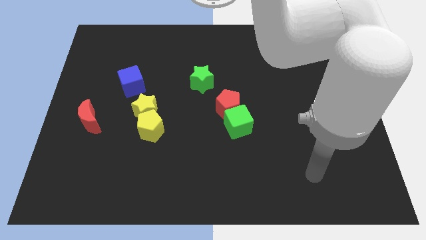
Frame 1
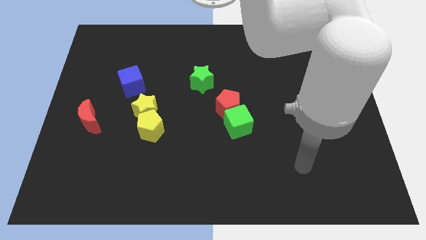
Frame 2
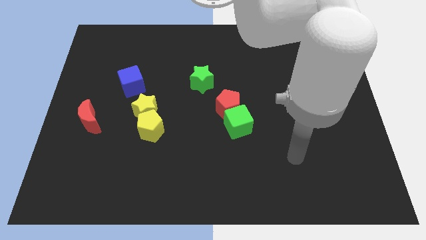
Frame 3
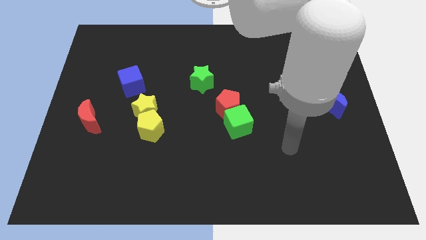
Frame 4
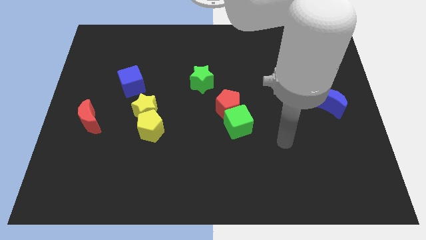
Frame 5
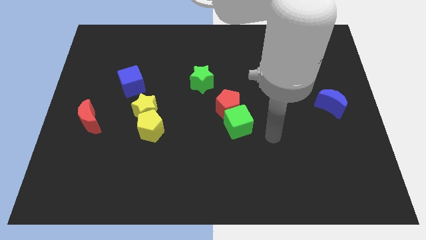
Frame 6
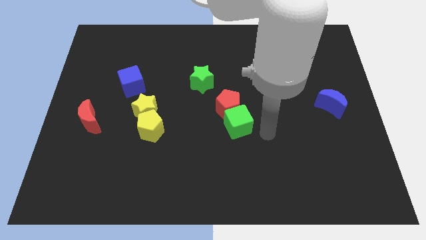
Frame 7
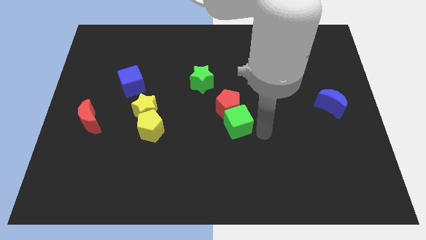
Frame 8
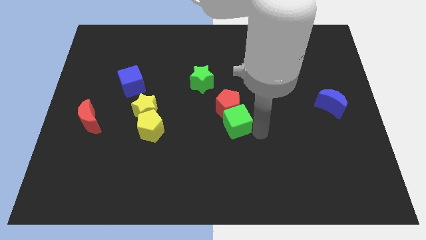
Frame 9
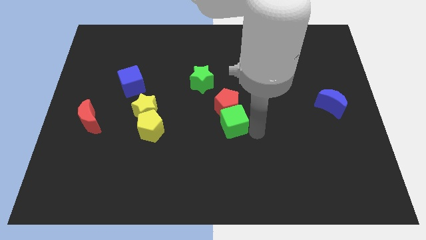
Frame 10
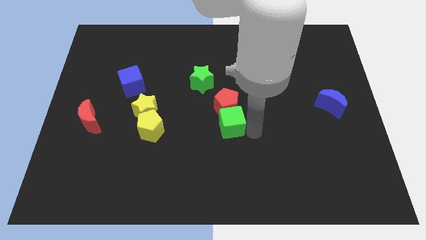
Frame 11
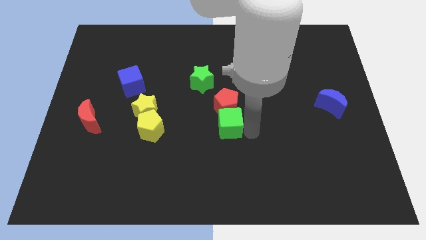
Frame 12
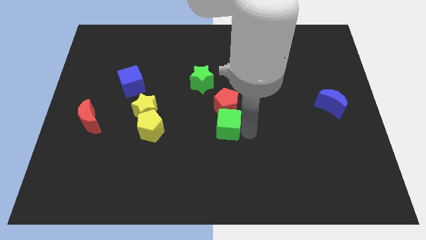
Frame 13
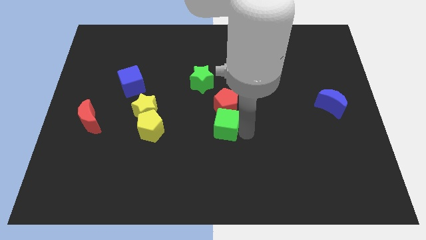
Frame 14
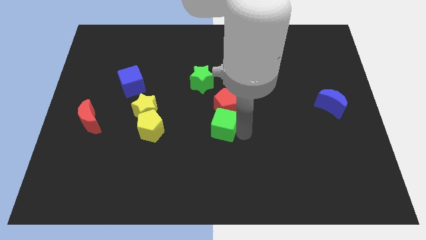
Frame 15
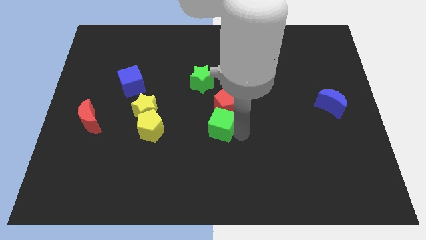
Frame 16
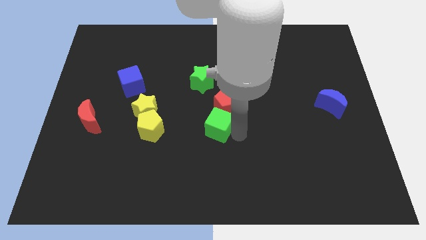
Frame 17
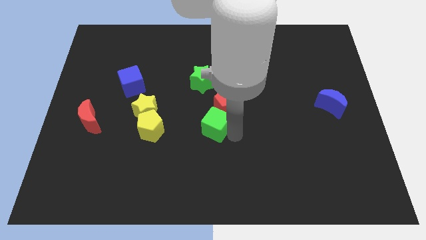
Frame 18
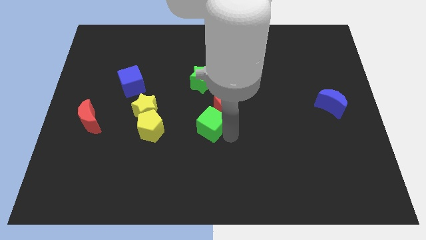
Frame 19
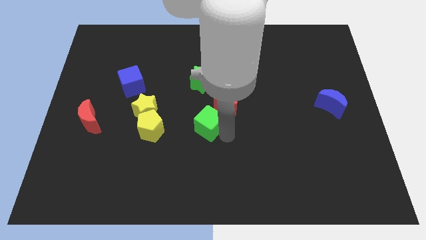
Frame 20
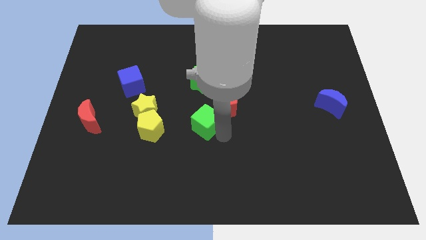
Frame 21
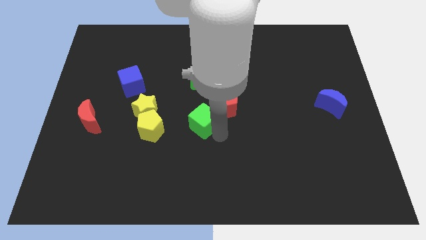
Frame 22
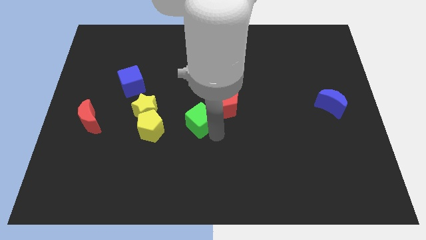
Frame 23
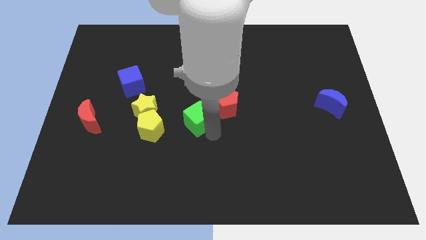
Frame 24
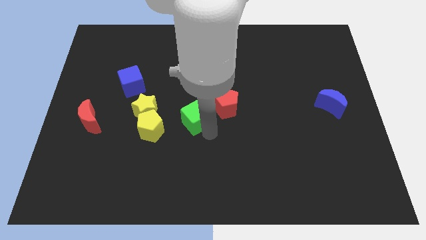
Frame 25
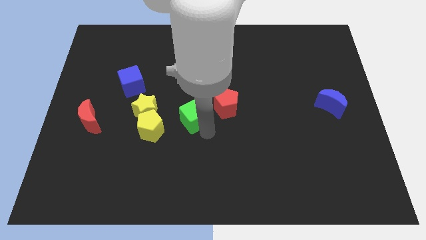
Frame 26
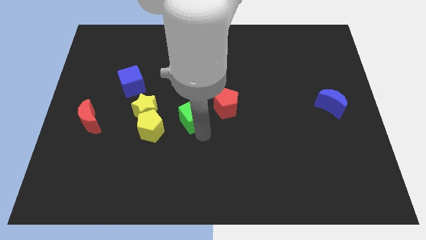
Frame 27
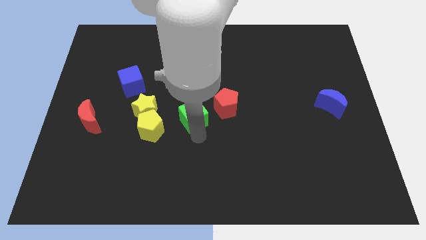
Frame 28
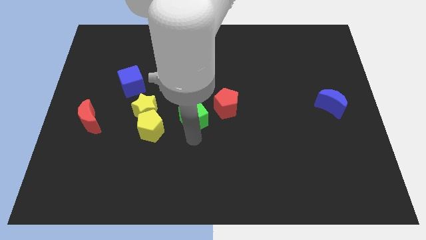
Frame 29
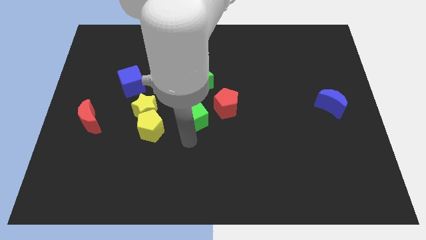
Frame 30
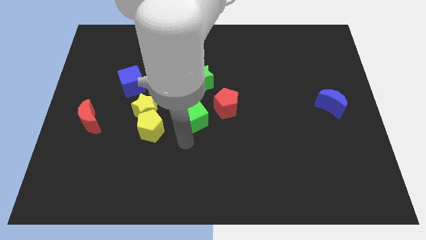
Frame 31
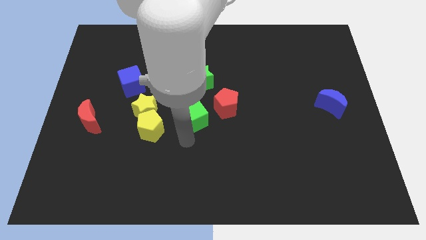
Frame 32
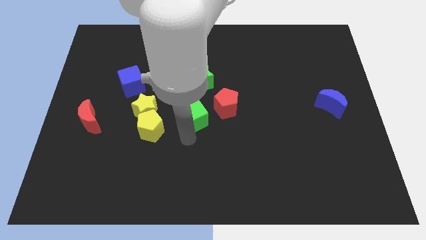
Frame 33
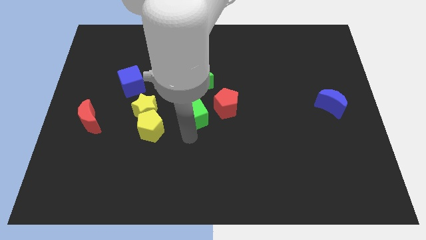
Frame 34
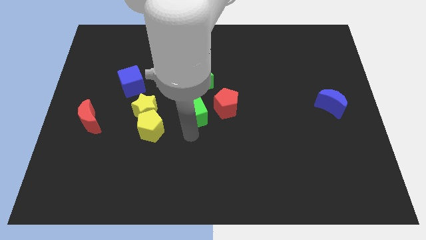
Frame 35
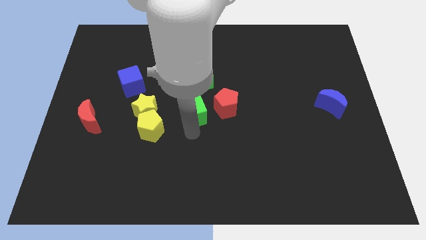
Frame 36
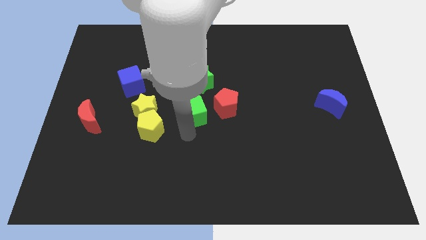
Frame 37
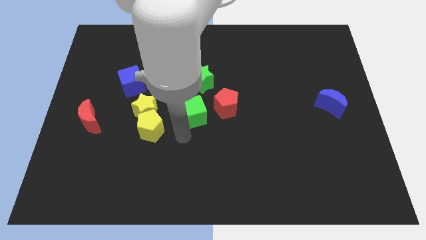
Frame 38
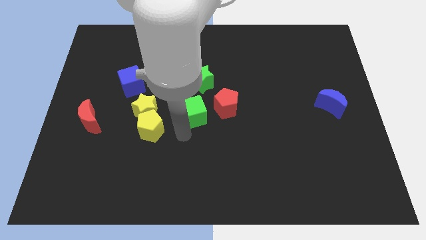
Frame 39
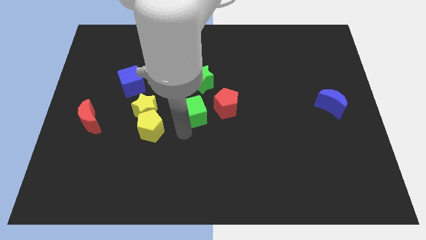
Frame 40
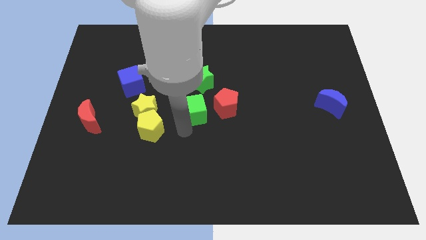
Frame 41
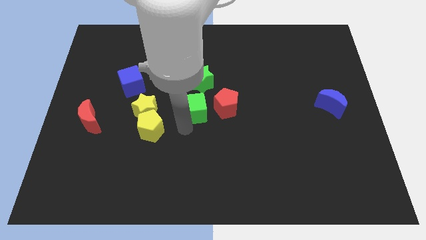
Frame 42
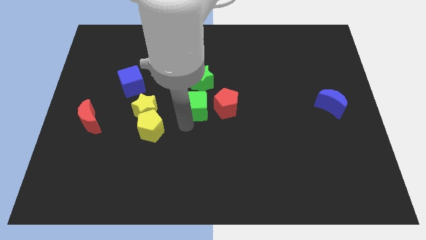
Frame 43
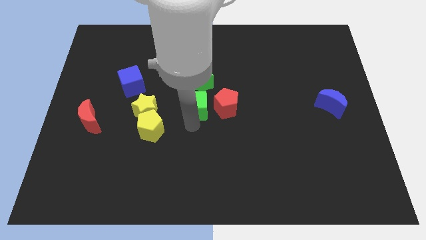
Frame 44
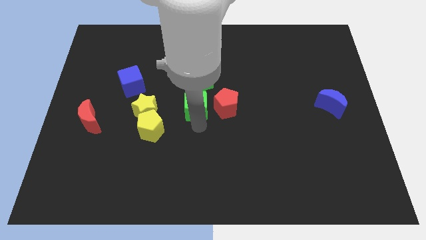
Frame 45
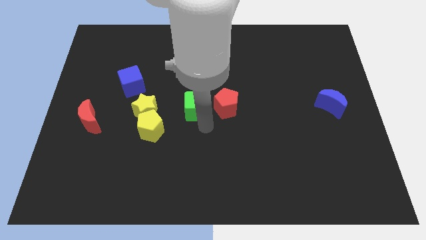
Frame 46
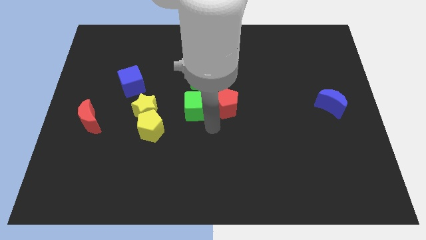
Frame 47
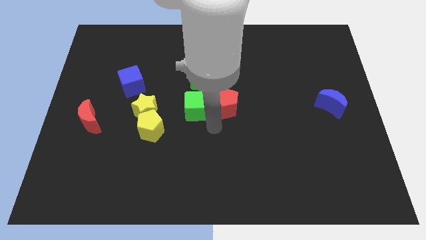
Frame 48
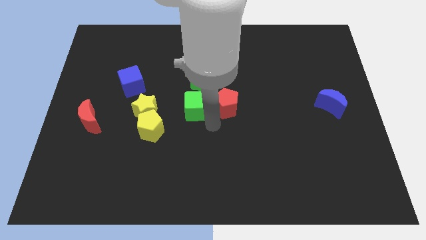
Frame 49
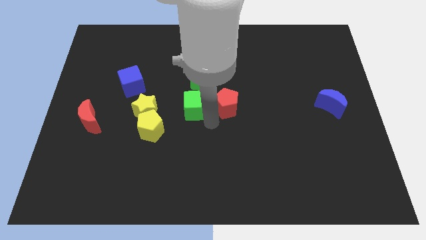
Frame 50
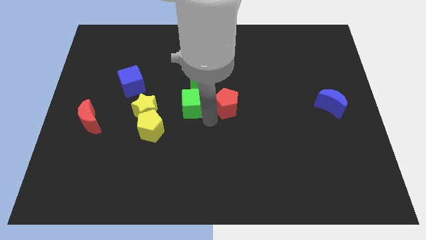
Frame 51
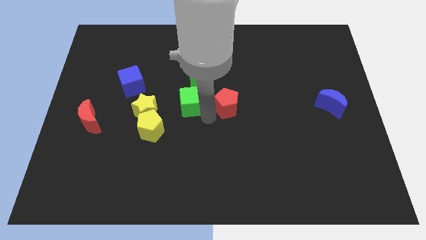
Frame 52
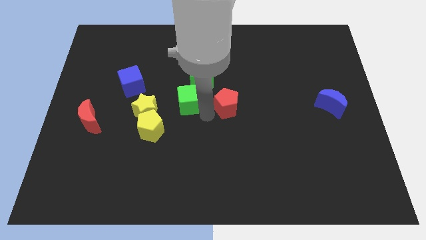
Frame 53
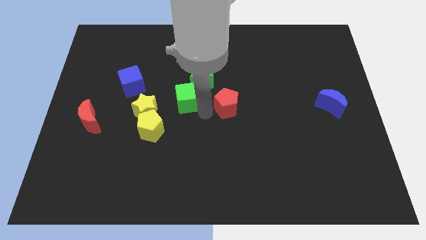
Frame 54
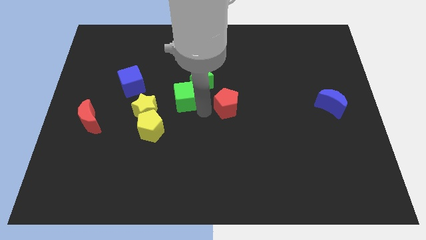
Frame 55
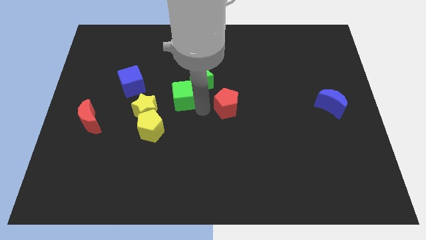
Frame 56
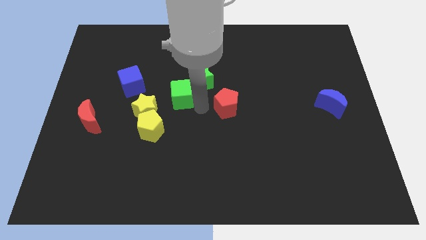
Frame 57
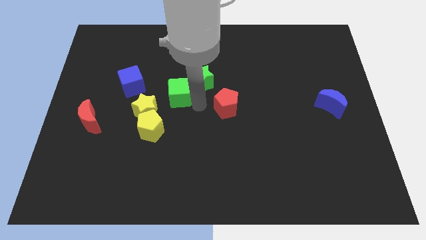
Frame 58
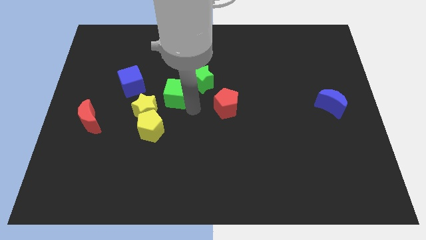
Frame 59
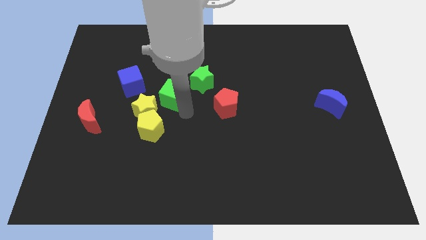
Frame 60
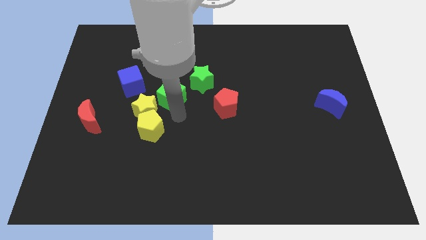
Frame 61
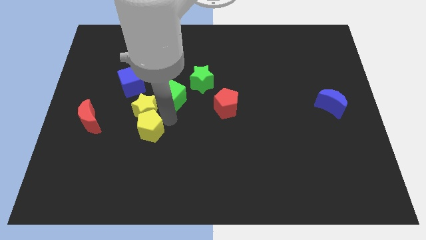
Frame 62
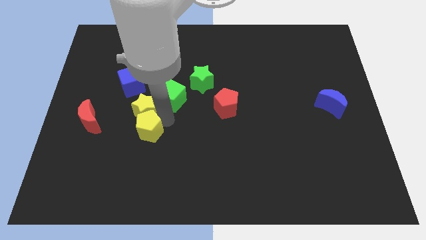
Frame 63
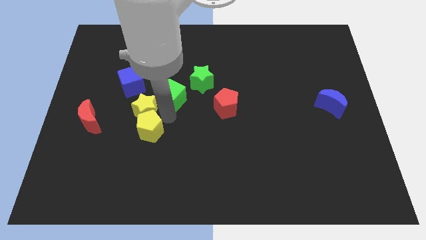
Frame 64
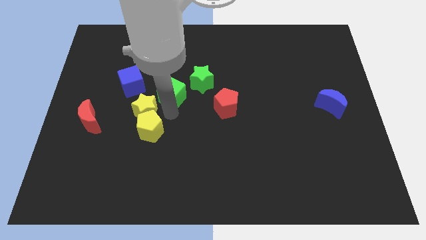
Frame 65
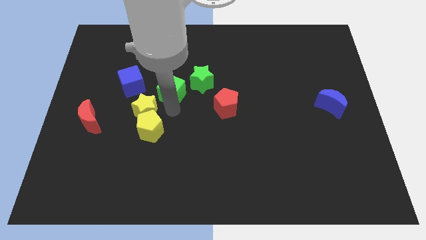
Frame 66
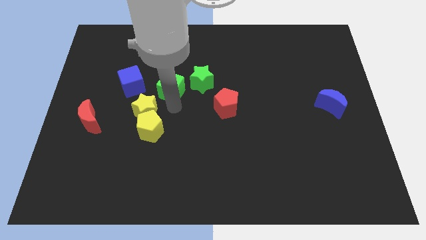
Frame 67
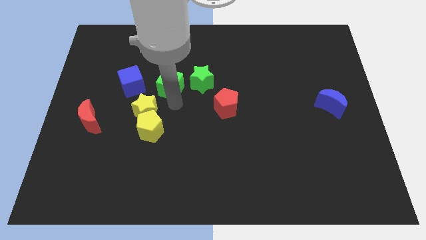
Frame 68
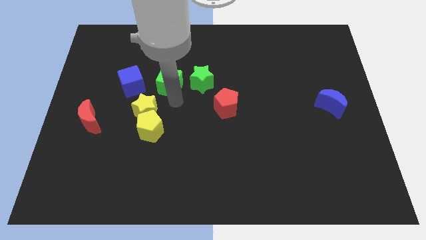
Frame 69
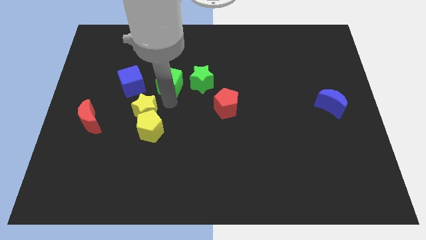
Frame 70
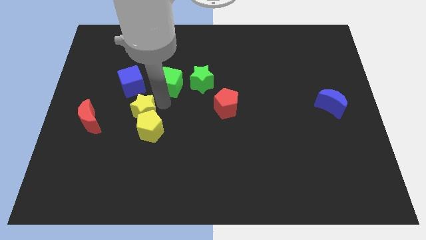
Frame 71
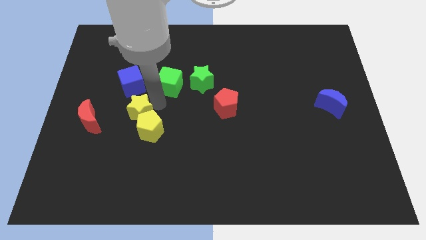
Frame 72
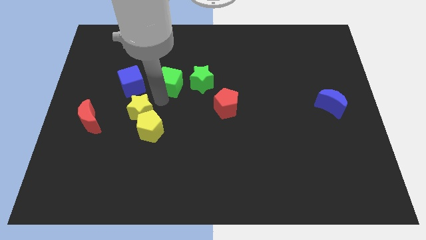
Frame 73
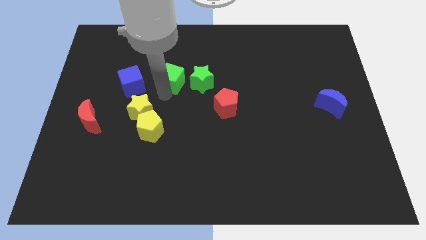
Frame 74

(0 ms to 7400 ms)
move the green cube diagonally up and to the left of the green star
